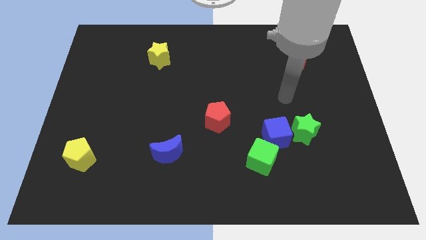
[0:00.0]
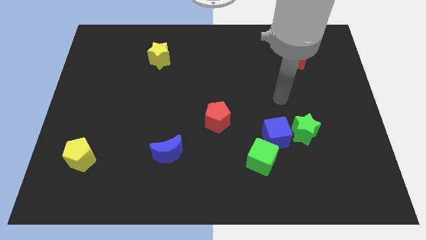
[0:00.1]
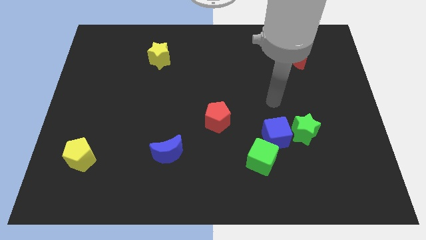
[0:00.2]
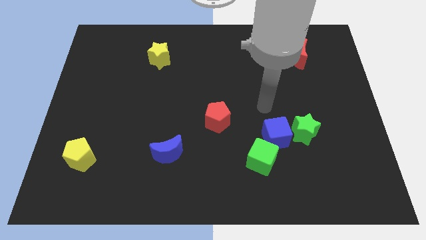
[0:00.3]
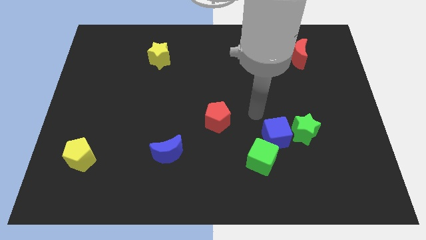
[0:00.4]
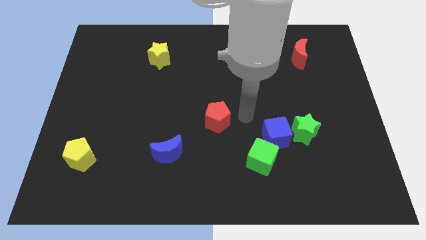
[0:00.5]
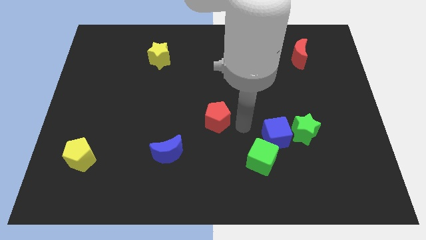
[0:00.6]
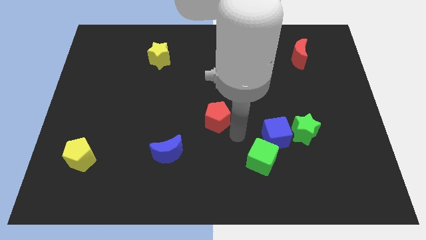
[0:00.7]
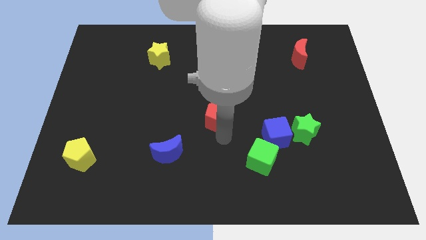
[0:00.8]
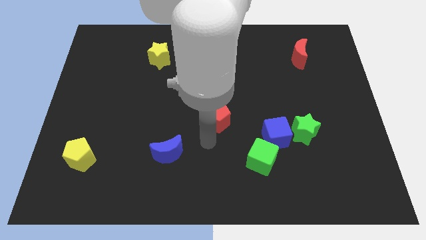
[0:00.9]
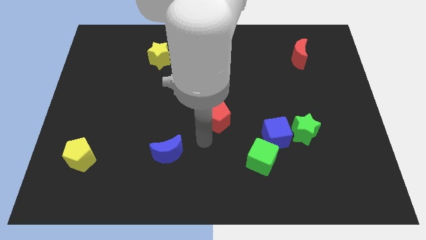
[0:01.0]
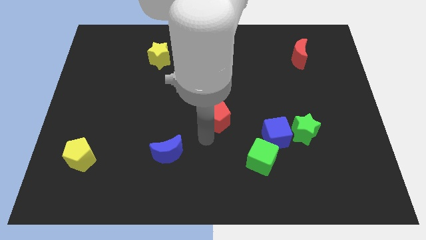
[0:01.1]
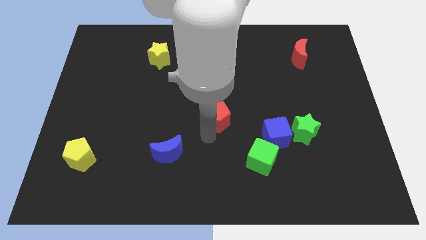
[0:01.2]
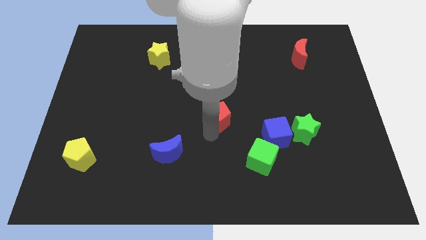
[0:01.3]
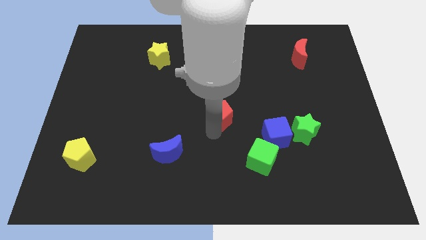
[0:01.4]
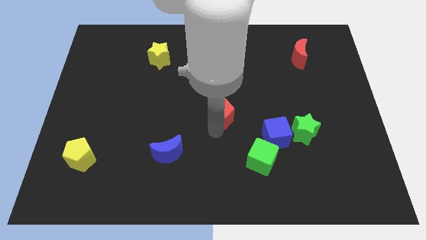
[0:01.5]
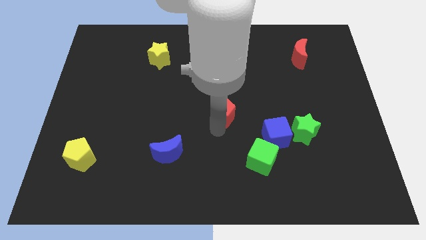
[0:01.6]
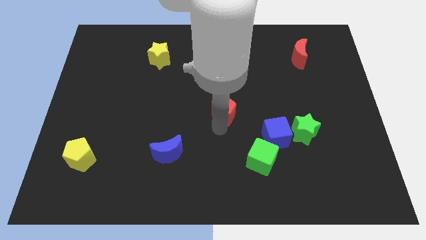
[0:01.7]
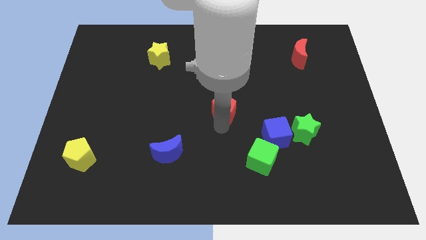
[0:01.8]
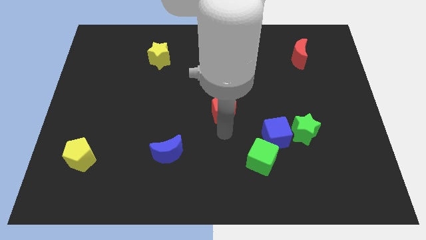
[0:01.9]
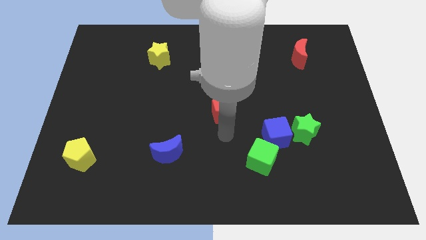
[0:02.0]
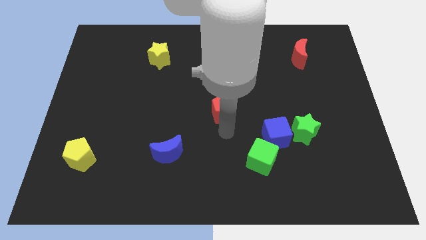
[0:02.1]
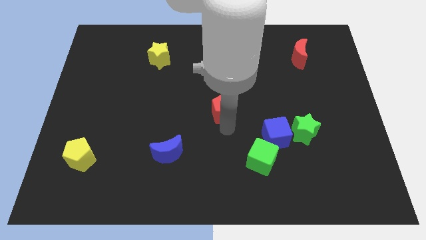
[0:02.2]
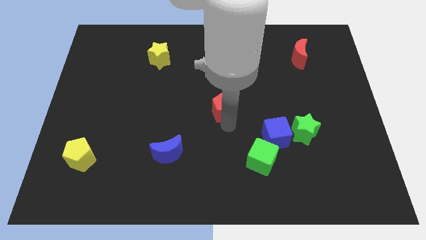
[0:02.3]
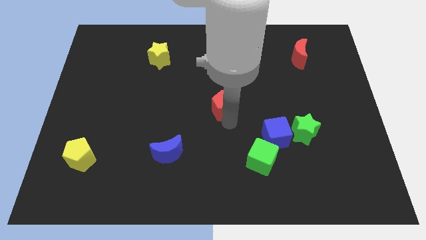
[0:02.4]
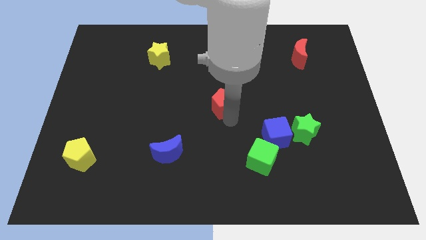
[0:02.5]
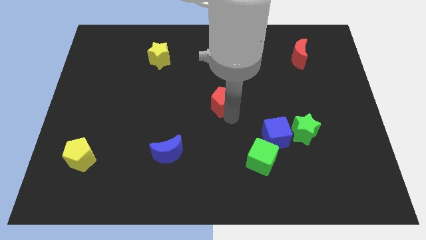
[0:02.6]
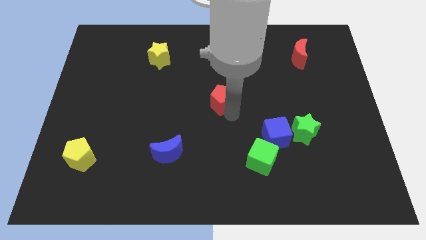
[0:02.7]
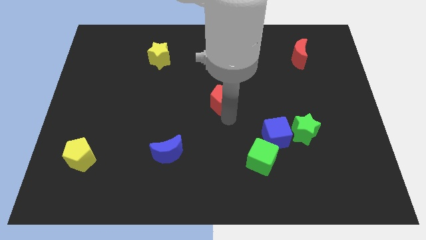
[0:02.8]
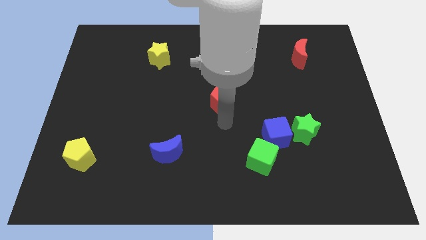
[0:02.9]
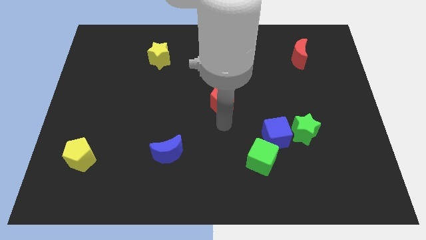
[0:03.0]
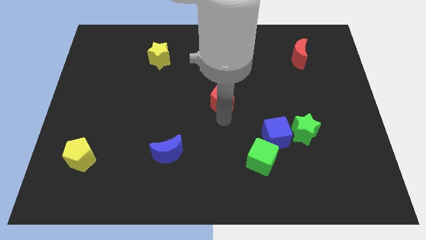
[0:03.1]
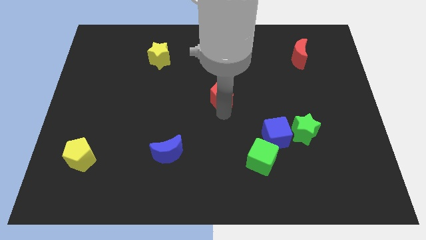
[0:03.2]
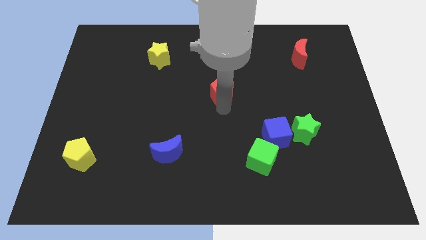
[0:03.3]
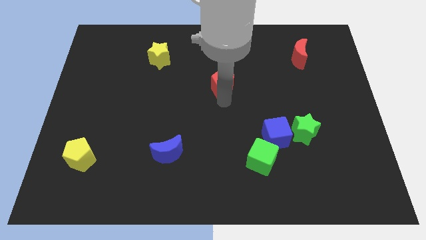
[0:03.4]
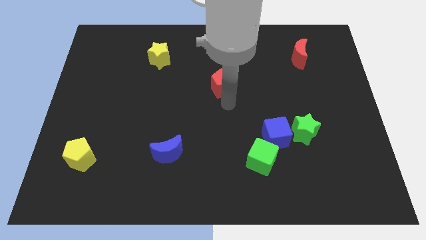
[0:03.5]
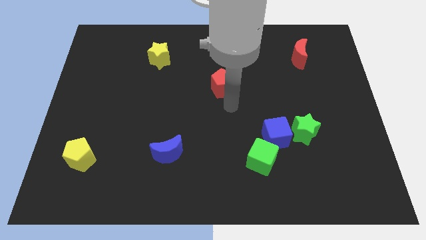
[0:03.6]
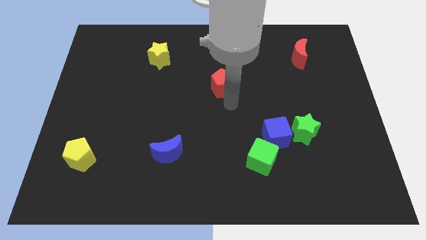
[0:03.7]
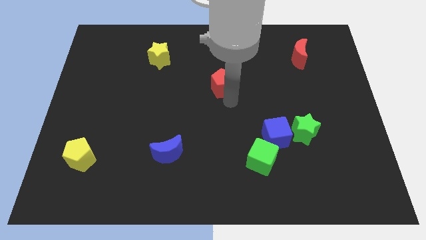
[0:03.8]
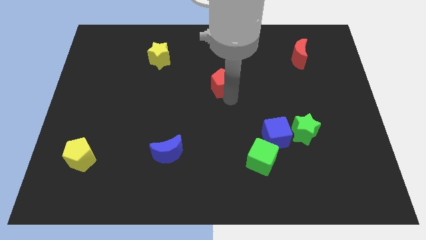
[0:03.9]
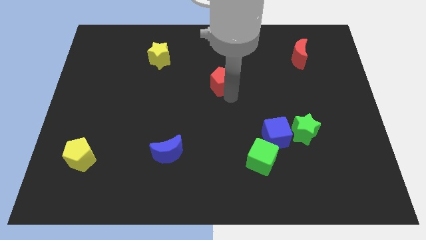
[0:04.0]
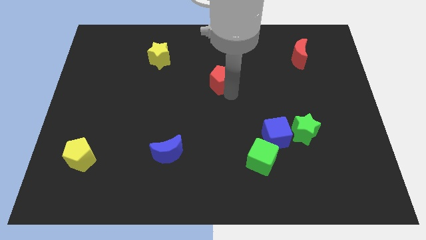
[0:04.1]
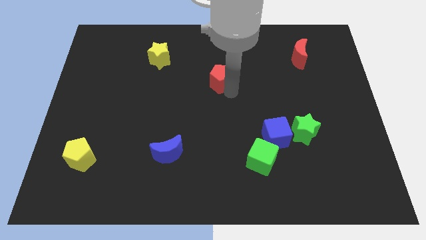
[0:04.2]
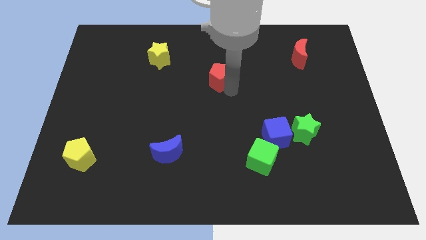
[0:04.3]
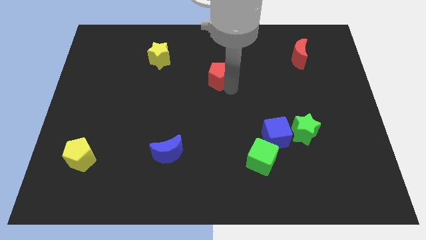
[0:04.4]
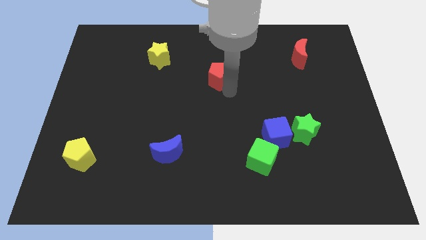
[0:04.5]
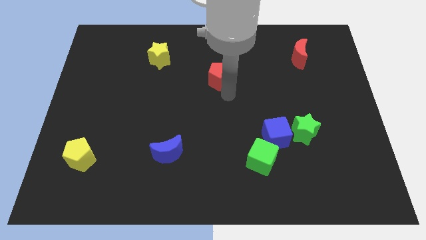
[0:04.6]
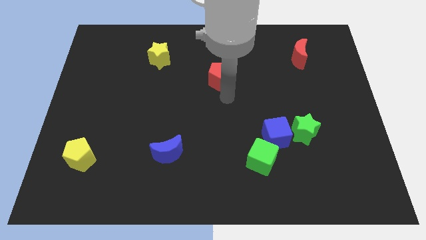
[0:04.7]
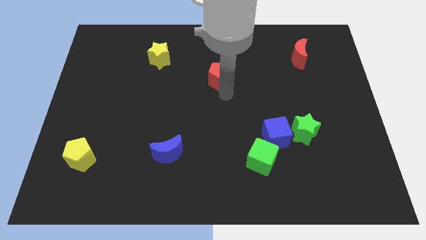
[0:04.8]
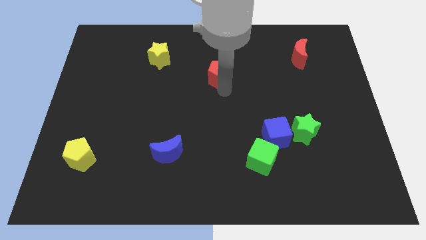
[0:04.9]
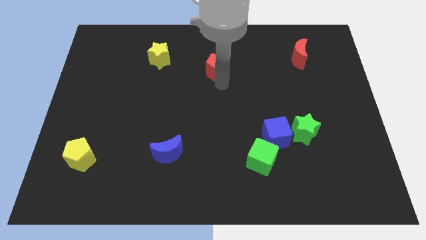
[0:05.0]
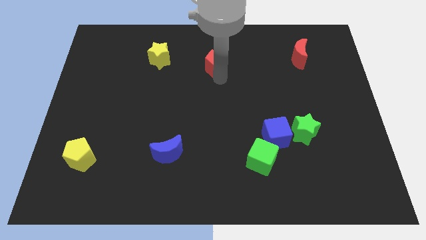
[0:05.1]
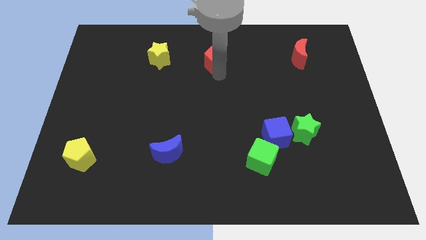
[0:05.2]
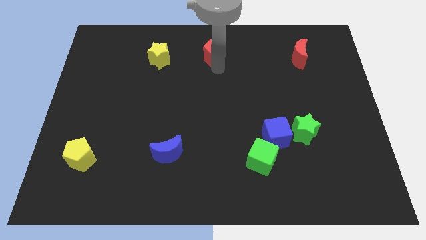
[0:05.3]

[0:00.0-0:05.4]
move the red pentagon to the top side

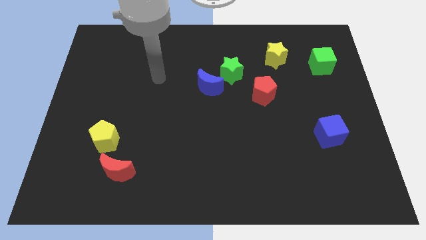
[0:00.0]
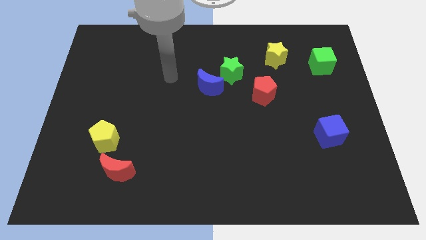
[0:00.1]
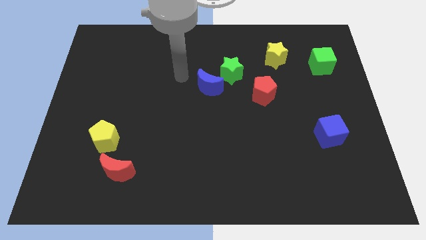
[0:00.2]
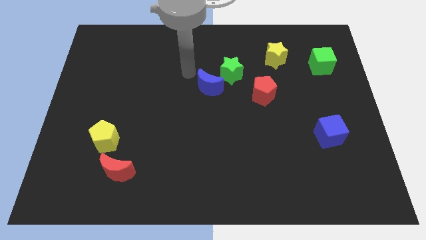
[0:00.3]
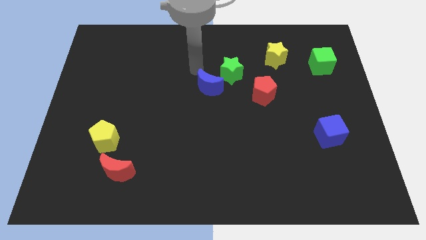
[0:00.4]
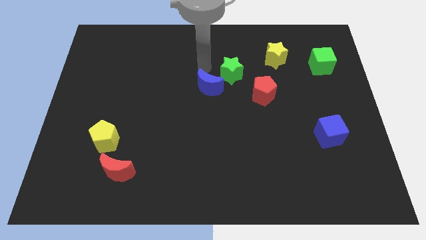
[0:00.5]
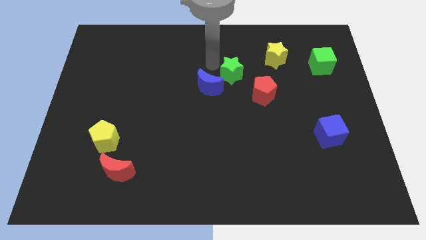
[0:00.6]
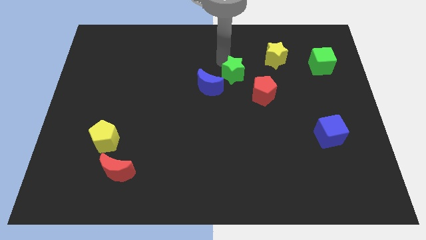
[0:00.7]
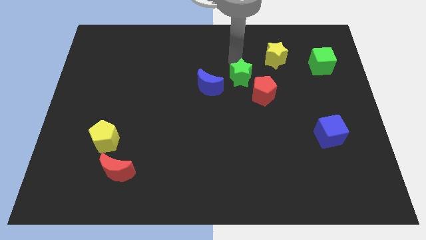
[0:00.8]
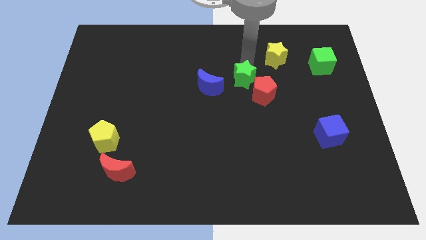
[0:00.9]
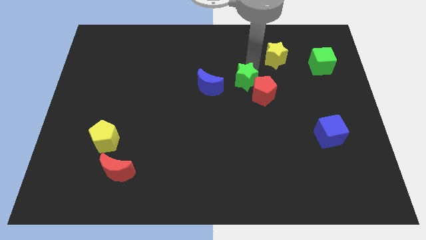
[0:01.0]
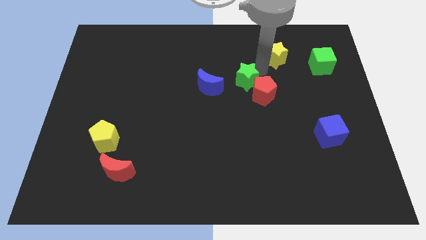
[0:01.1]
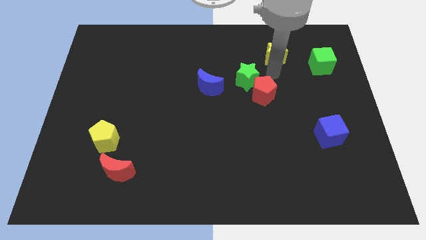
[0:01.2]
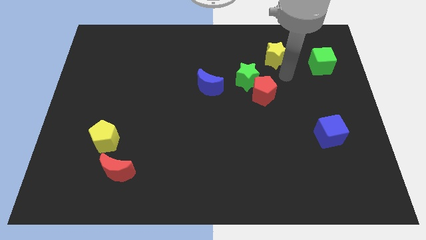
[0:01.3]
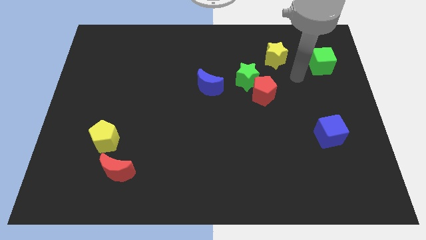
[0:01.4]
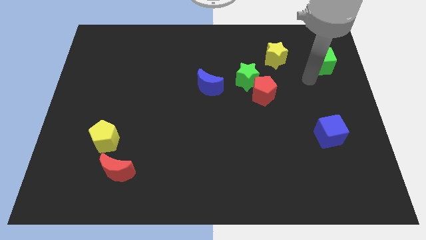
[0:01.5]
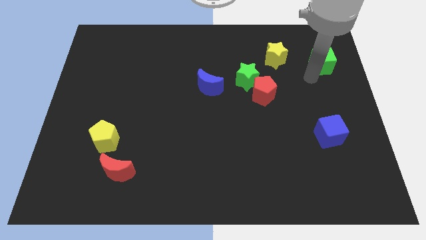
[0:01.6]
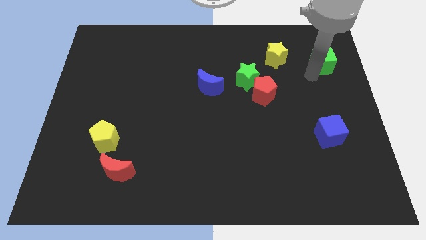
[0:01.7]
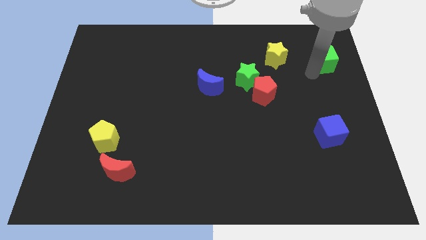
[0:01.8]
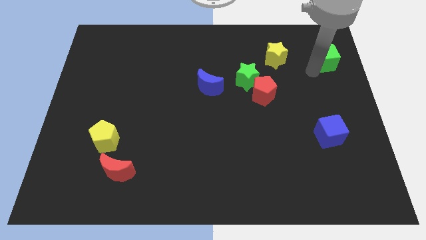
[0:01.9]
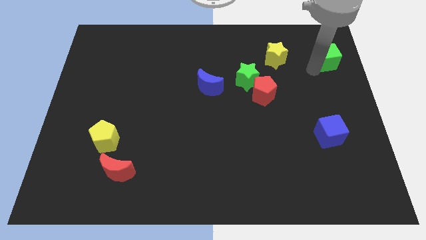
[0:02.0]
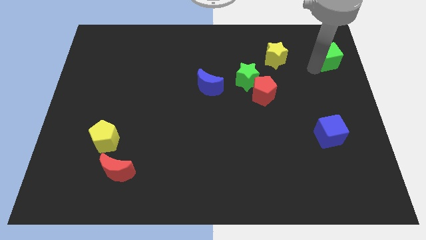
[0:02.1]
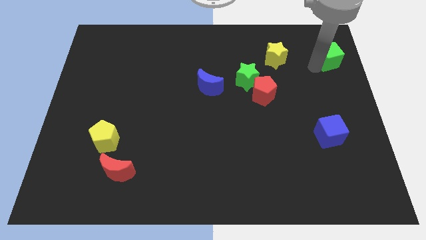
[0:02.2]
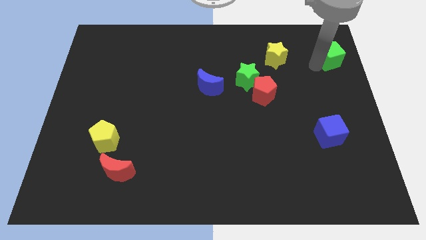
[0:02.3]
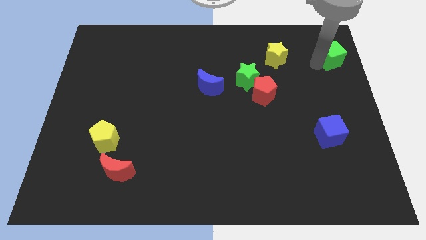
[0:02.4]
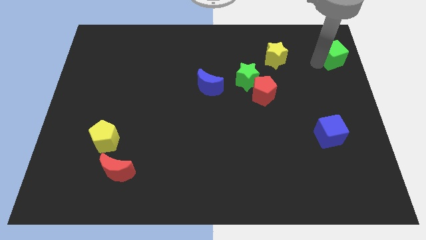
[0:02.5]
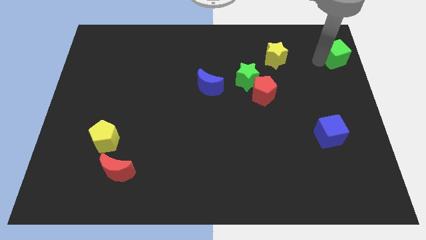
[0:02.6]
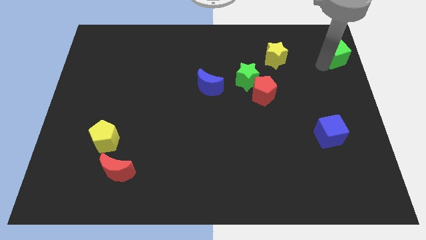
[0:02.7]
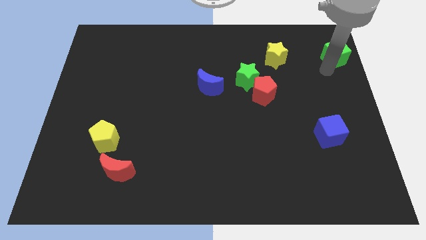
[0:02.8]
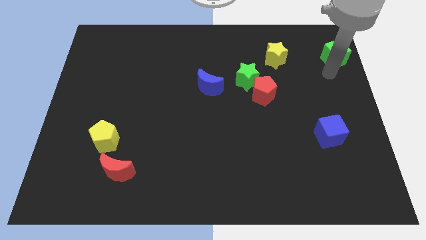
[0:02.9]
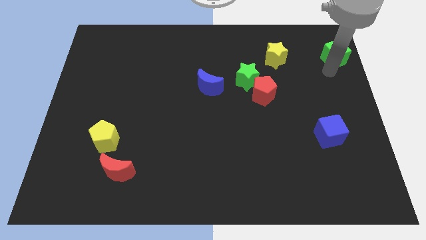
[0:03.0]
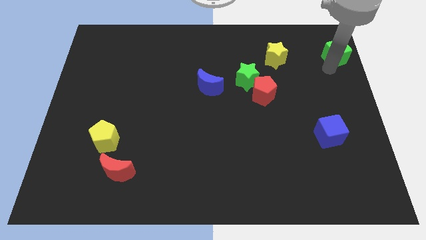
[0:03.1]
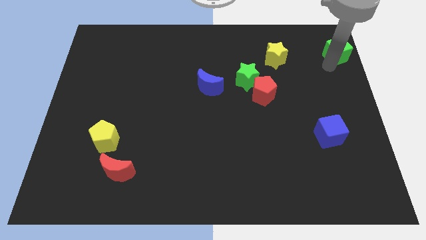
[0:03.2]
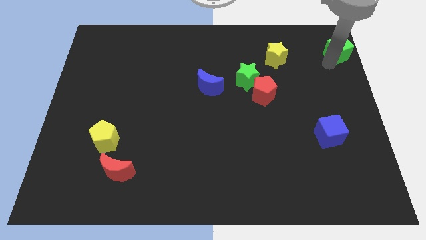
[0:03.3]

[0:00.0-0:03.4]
slide the green cube to the upper right corner
